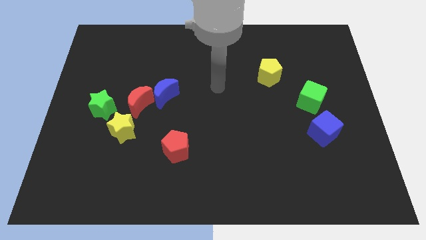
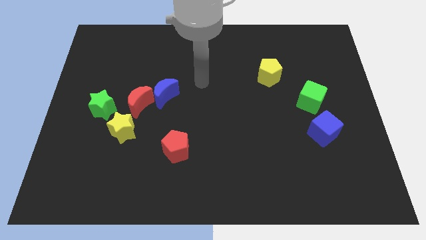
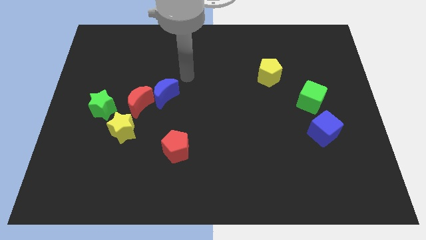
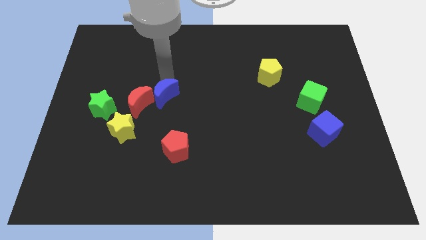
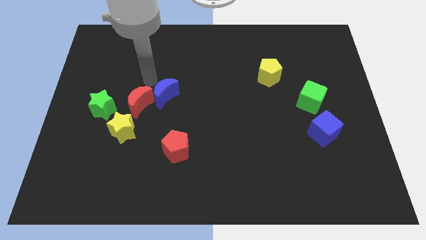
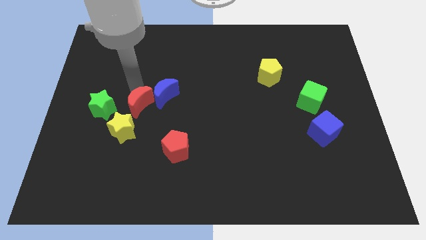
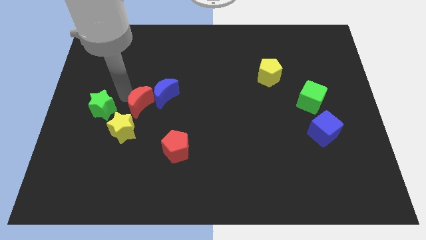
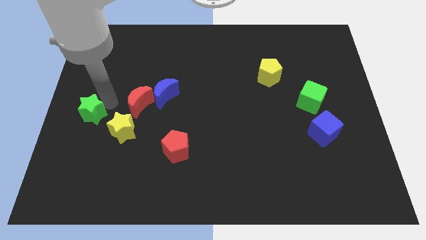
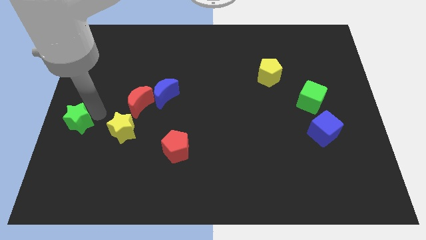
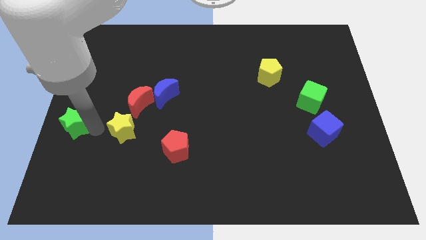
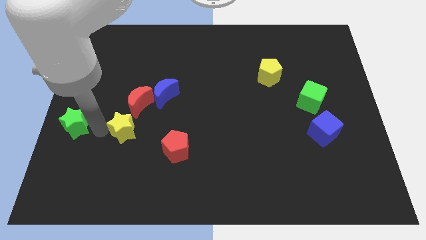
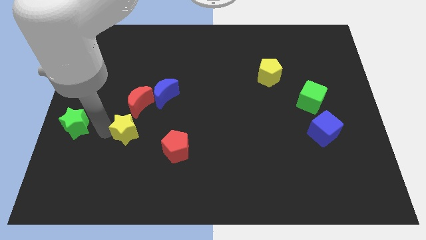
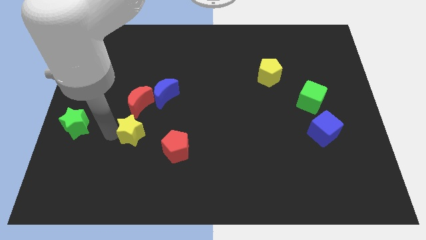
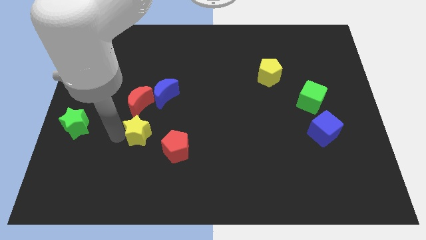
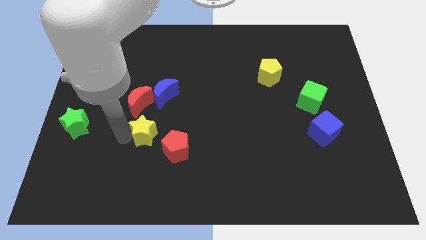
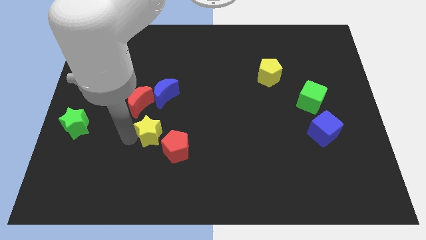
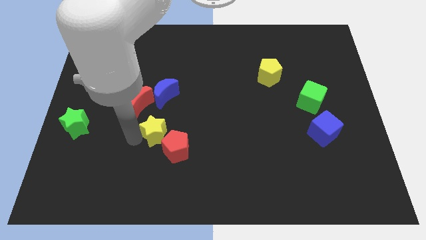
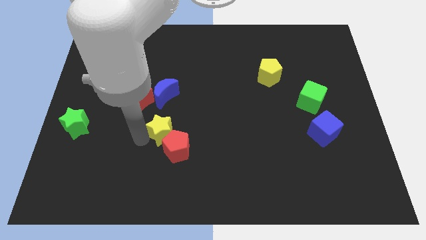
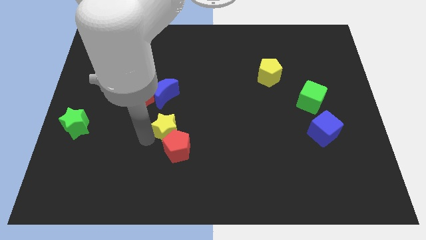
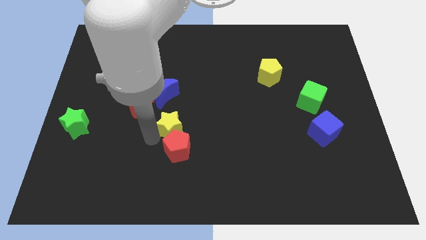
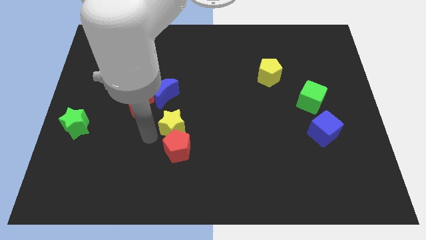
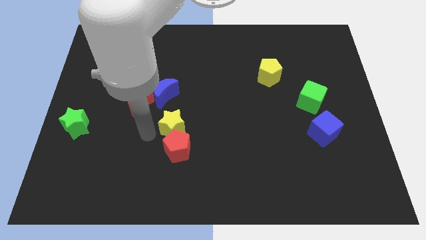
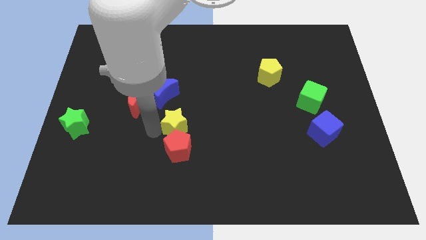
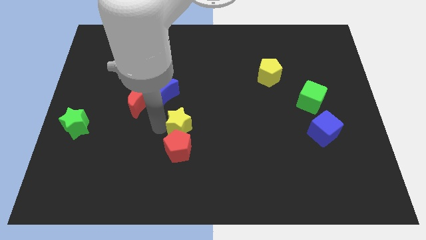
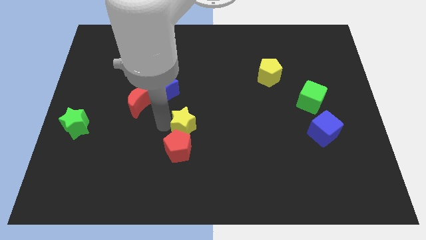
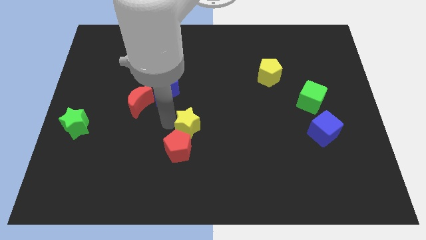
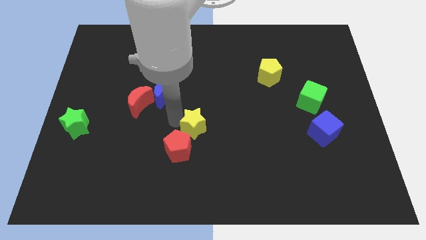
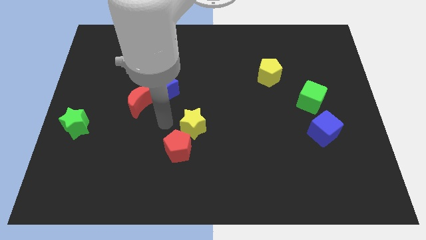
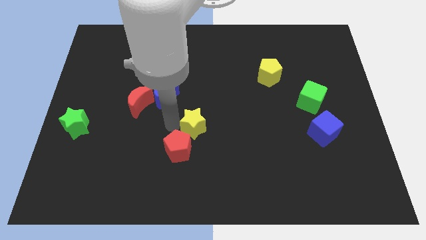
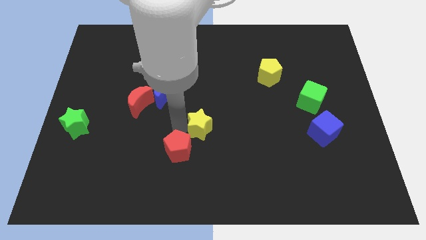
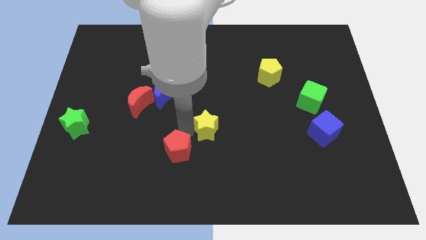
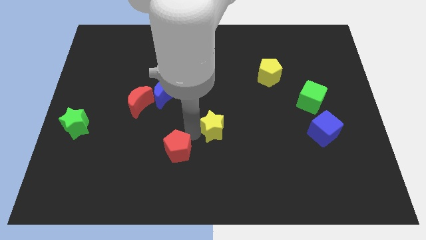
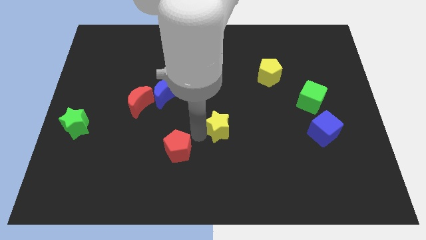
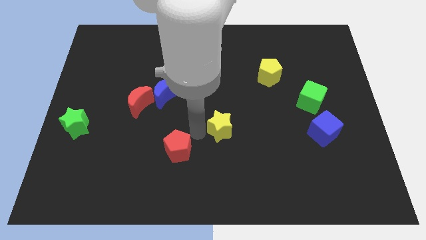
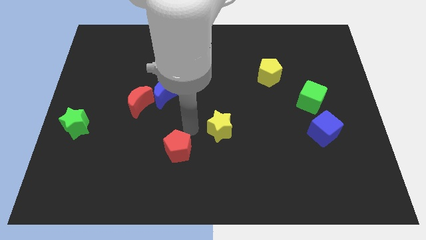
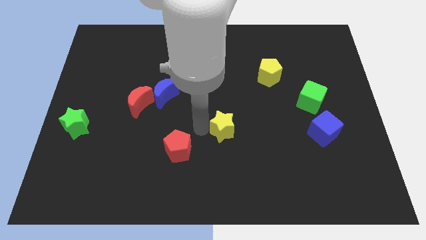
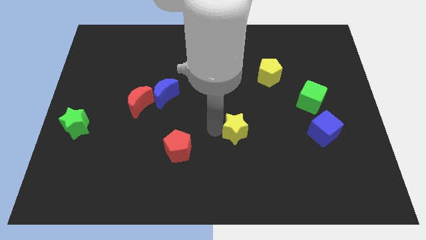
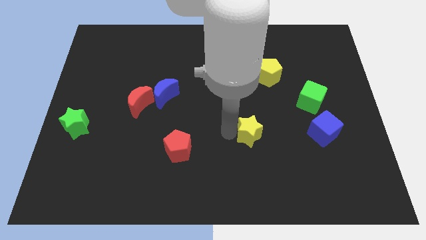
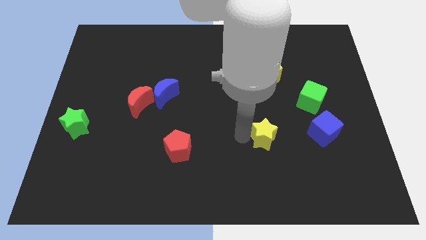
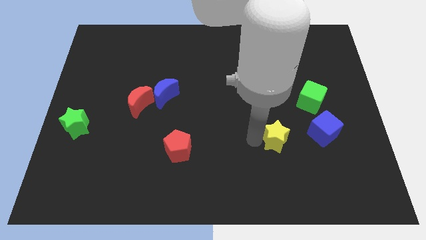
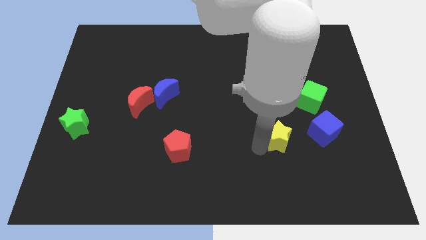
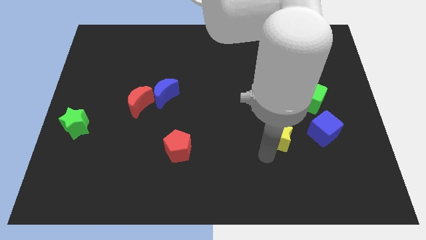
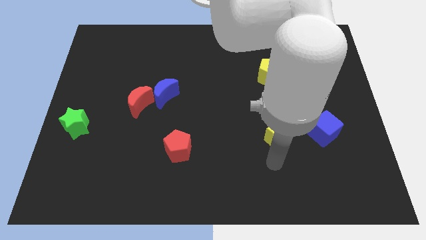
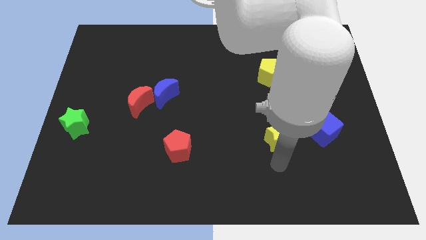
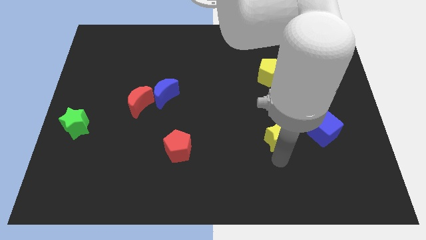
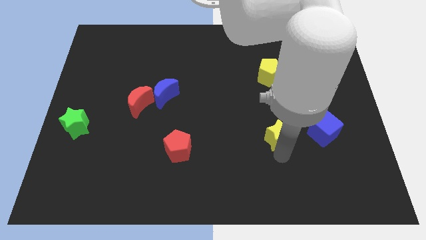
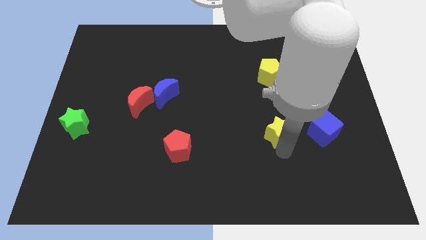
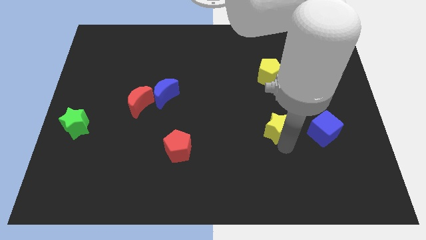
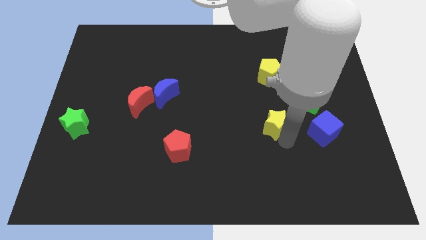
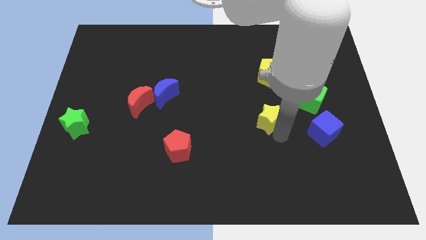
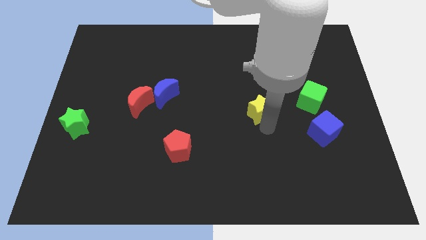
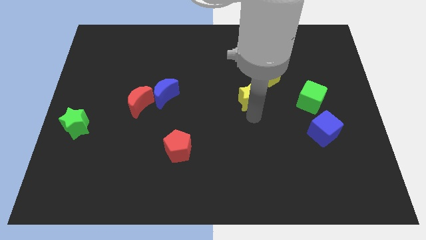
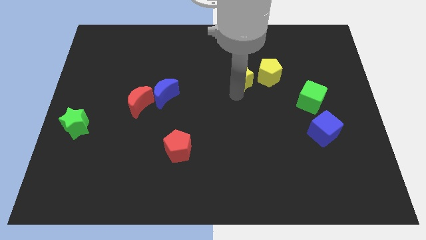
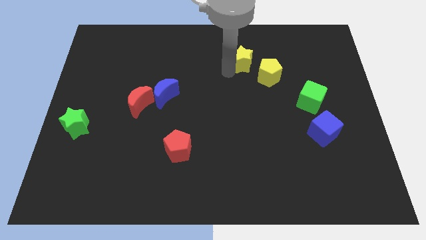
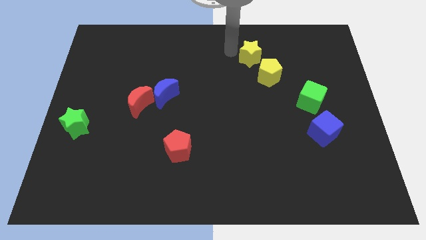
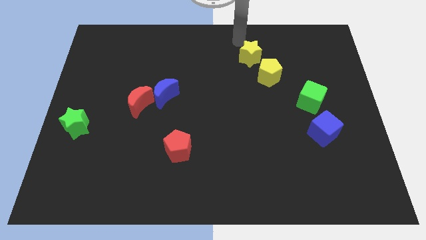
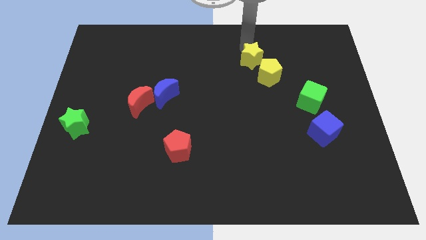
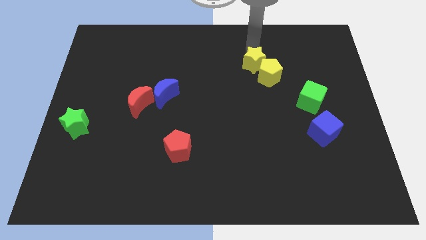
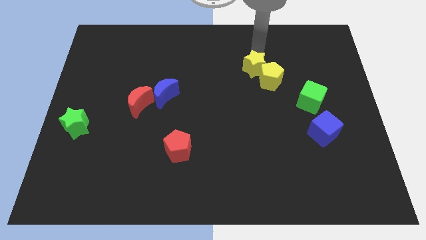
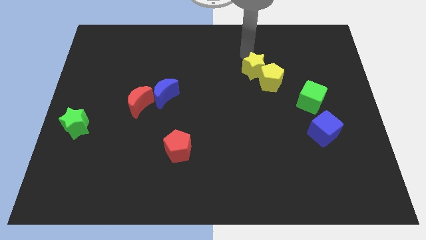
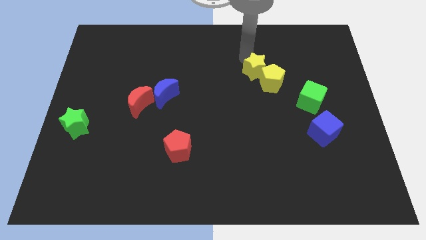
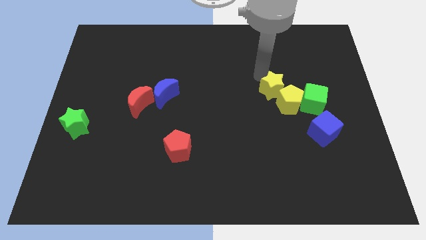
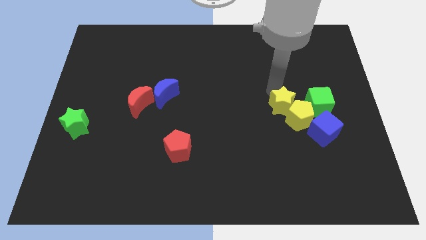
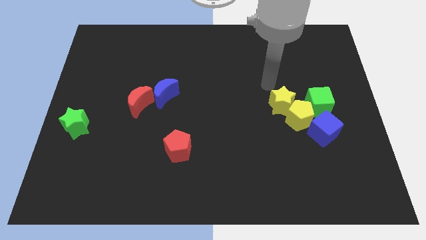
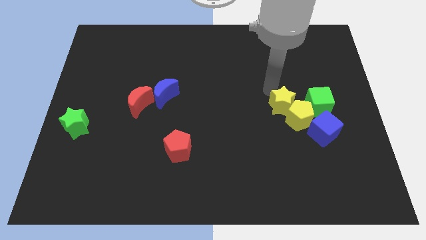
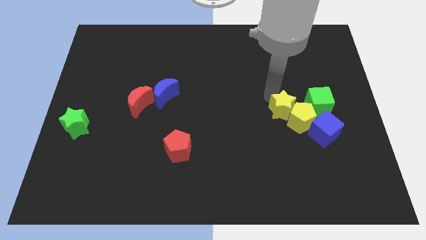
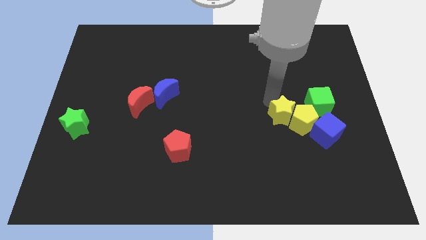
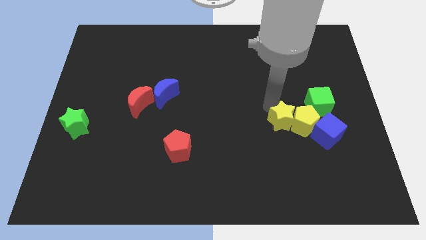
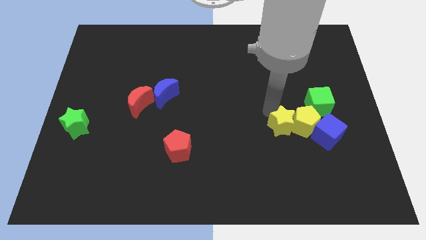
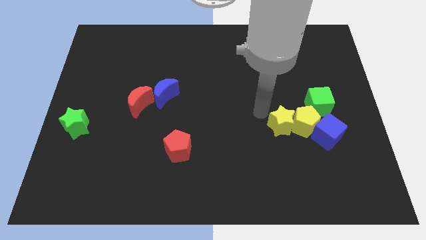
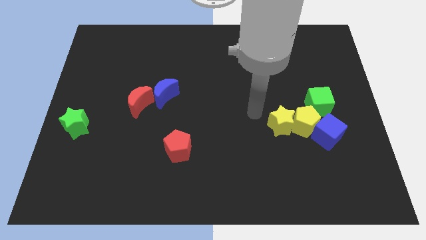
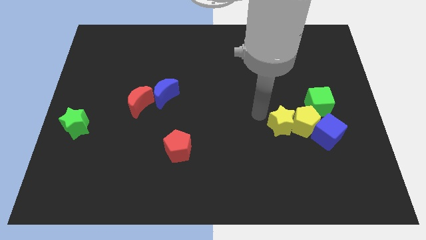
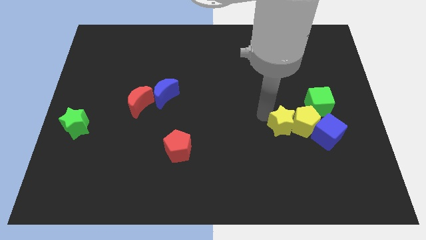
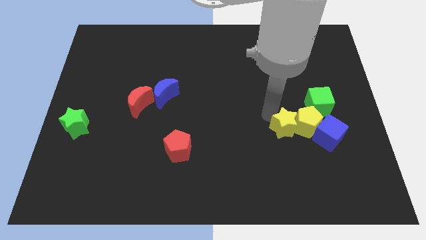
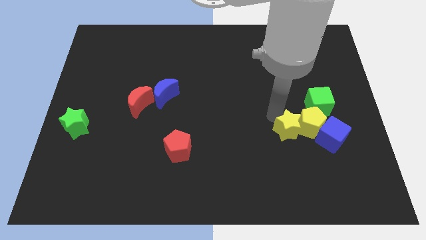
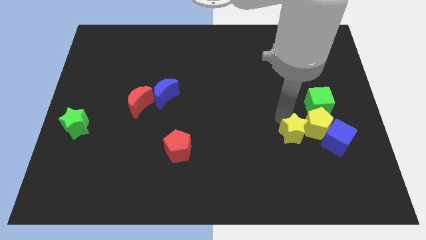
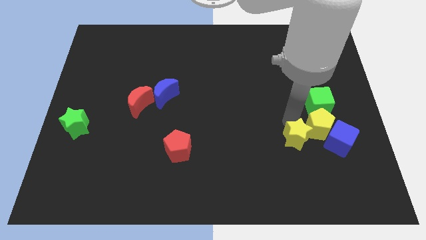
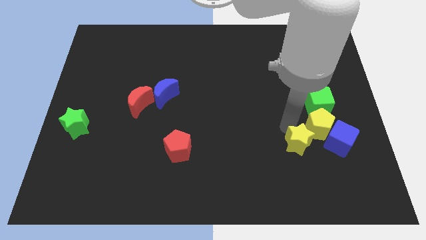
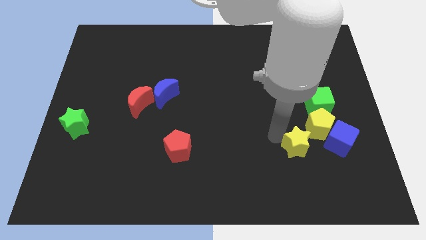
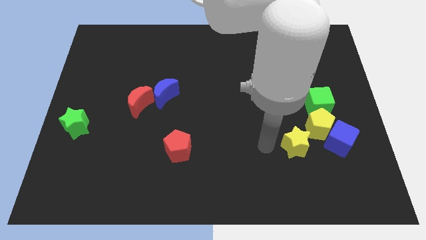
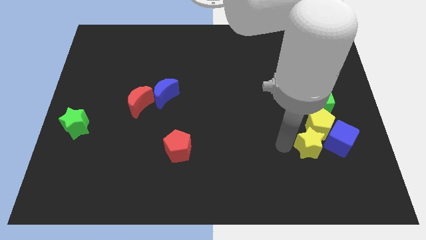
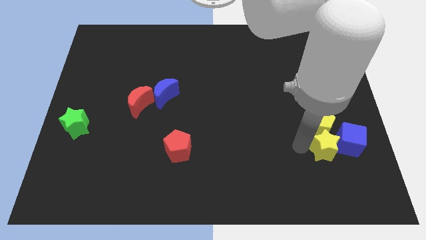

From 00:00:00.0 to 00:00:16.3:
put the yellow star next to the blue cube
